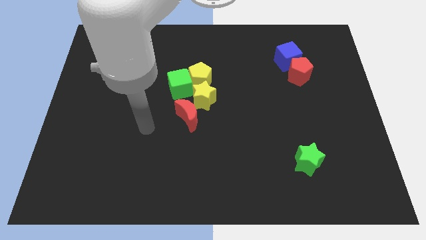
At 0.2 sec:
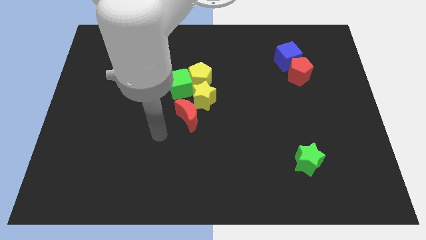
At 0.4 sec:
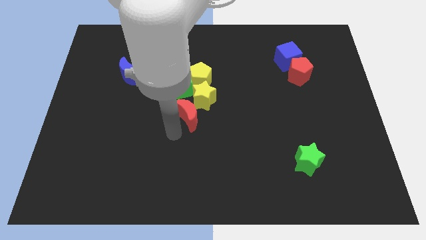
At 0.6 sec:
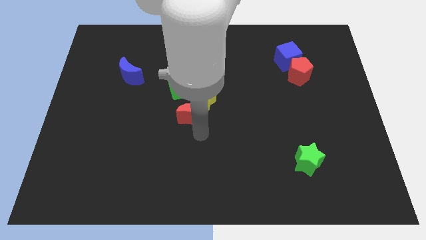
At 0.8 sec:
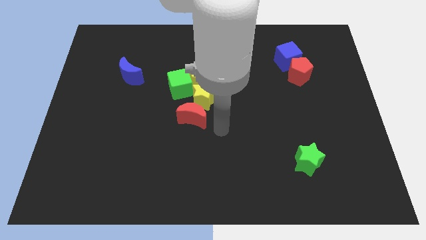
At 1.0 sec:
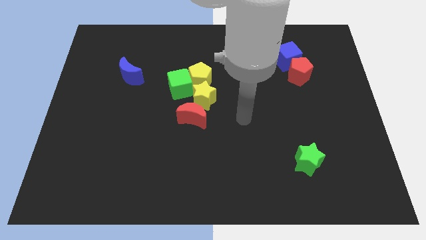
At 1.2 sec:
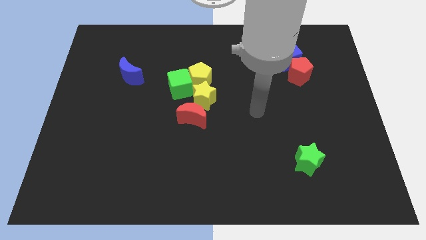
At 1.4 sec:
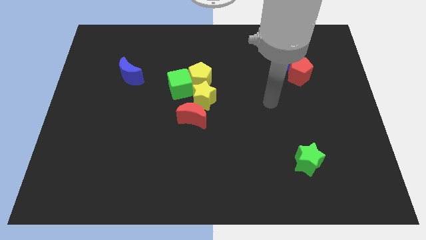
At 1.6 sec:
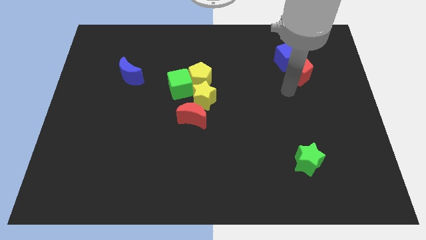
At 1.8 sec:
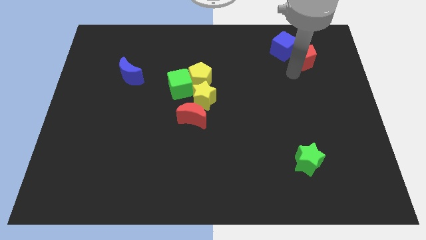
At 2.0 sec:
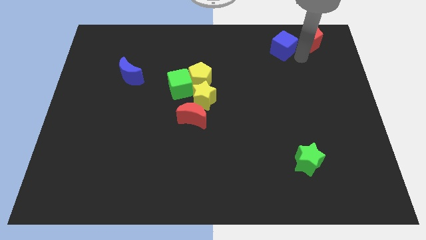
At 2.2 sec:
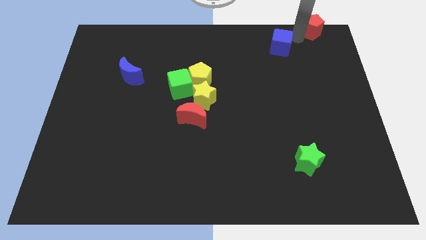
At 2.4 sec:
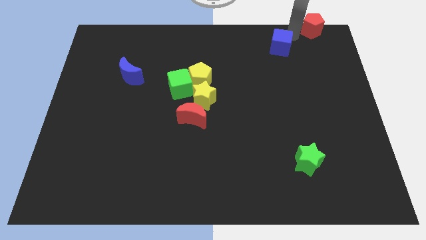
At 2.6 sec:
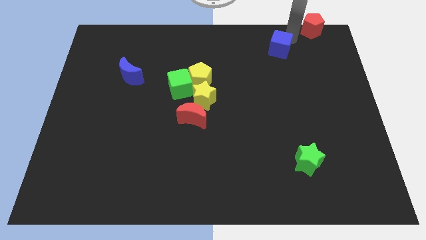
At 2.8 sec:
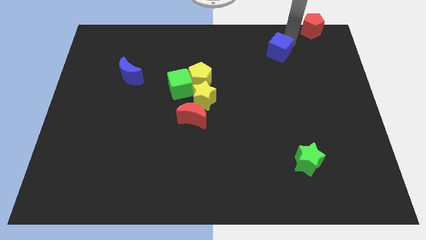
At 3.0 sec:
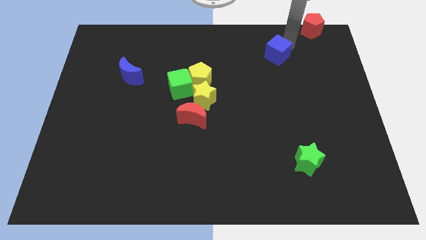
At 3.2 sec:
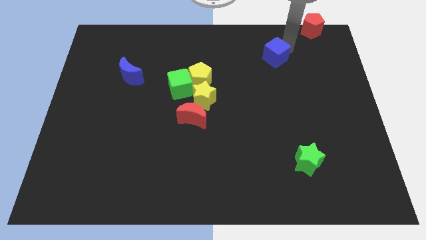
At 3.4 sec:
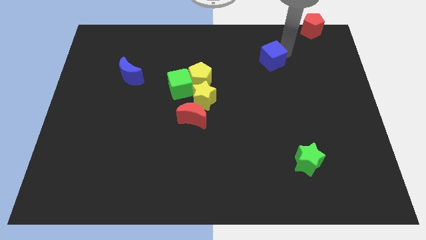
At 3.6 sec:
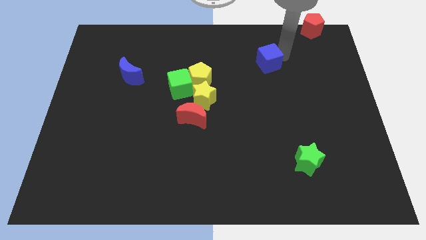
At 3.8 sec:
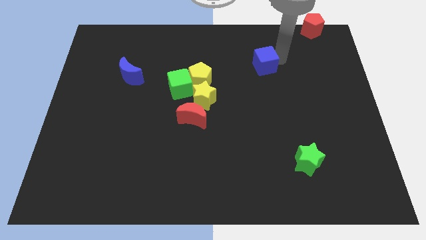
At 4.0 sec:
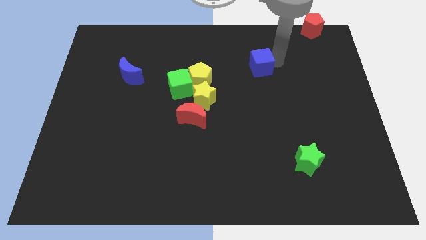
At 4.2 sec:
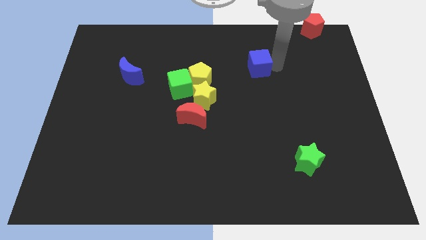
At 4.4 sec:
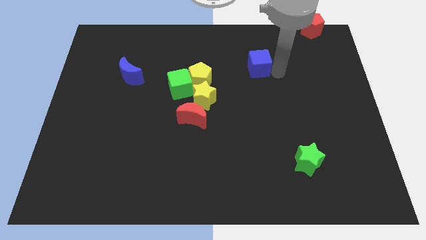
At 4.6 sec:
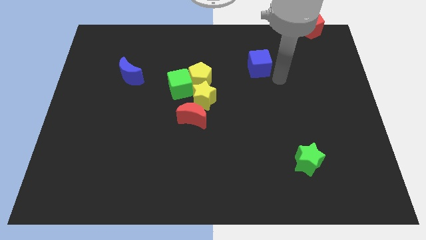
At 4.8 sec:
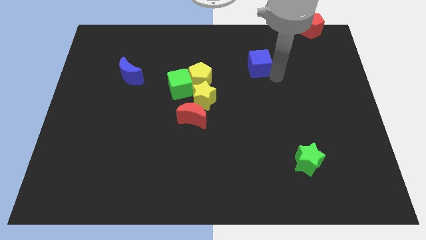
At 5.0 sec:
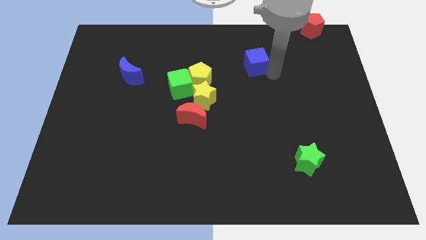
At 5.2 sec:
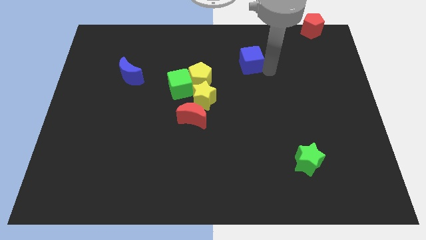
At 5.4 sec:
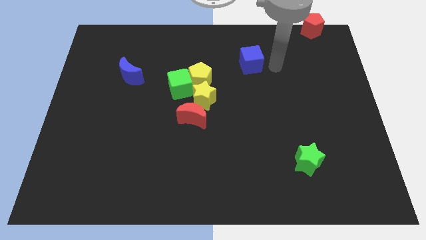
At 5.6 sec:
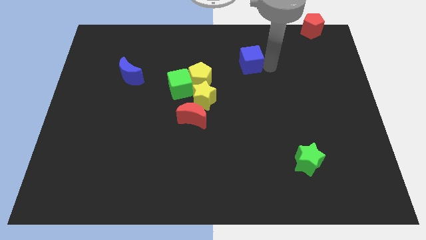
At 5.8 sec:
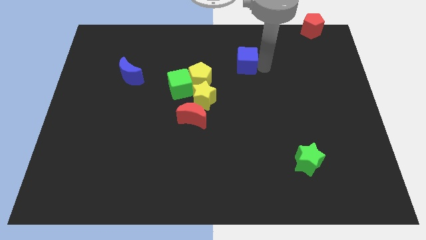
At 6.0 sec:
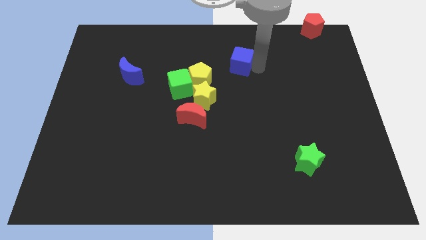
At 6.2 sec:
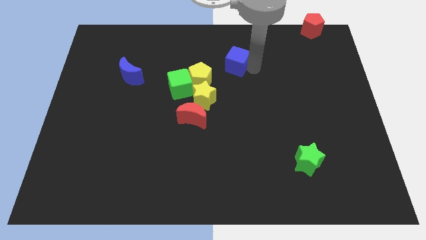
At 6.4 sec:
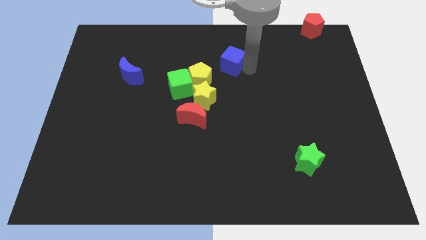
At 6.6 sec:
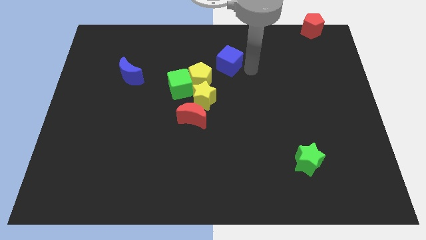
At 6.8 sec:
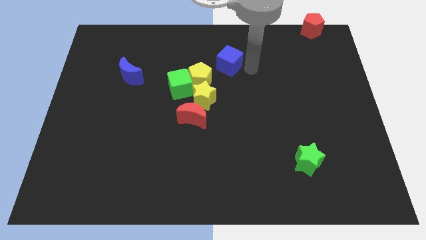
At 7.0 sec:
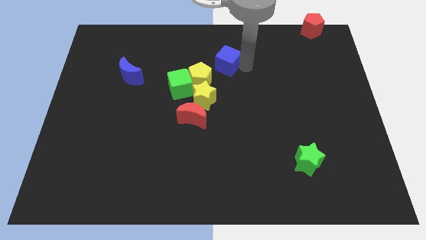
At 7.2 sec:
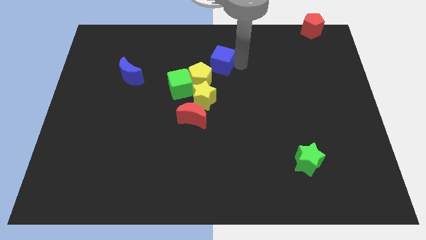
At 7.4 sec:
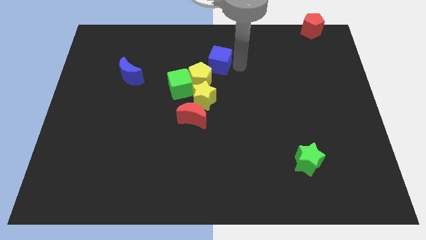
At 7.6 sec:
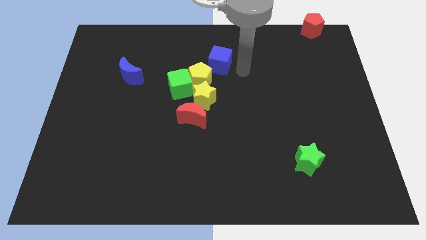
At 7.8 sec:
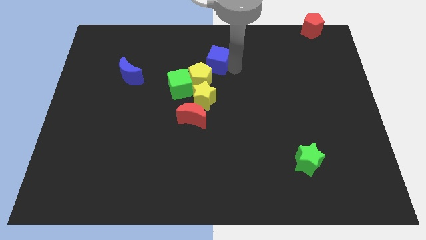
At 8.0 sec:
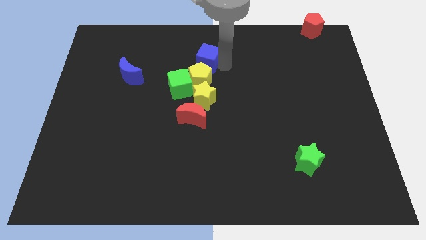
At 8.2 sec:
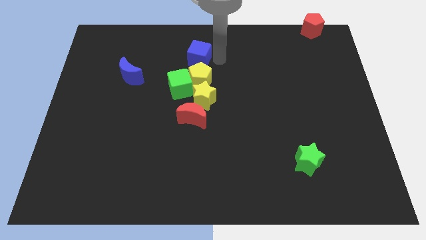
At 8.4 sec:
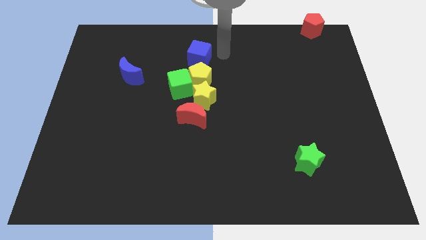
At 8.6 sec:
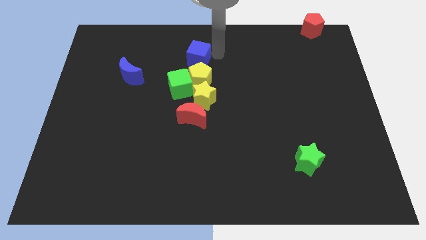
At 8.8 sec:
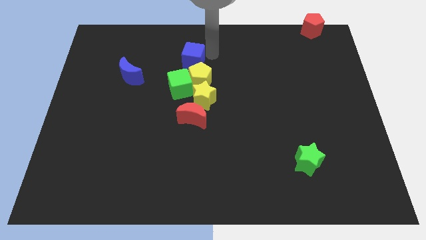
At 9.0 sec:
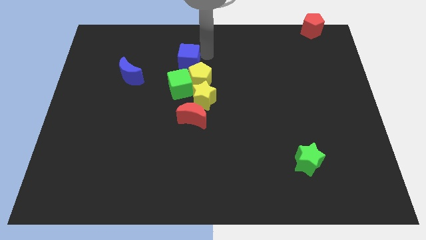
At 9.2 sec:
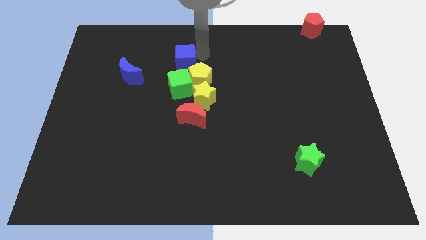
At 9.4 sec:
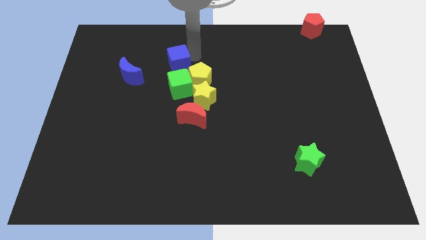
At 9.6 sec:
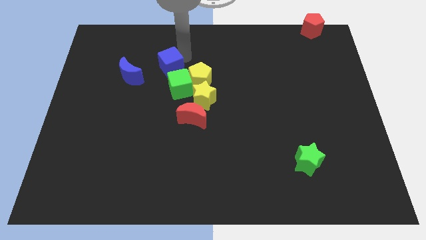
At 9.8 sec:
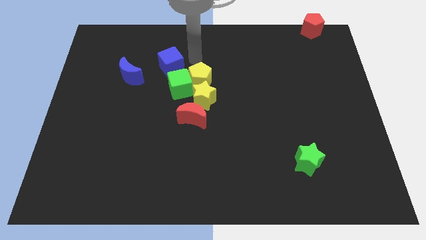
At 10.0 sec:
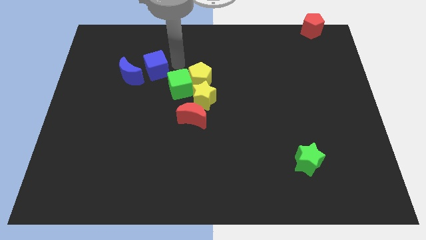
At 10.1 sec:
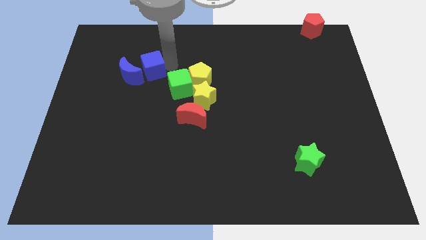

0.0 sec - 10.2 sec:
push the blue cube towards the blue moon

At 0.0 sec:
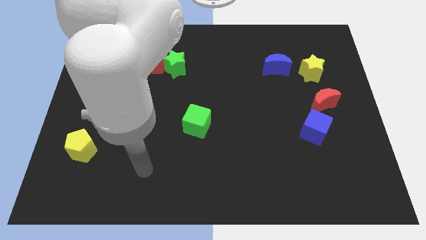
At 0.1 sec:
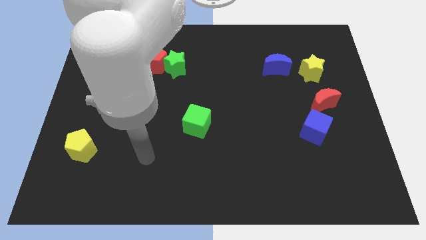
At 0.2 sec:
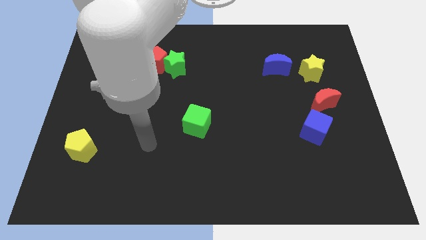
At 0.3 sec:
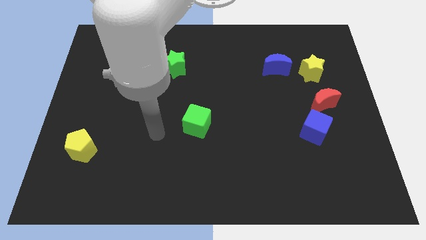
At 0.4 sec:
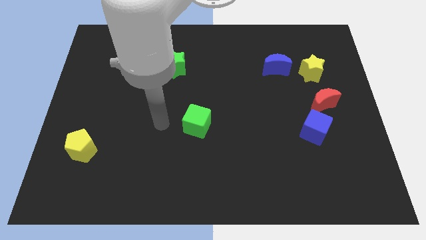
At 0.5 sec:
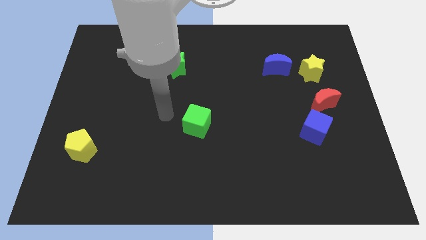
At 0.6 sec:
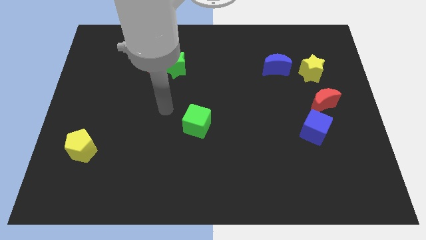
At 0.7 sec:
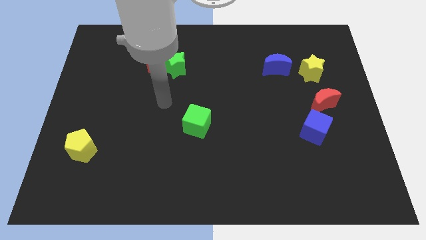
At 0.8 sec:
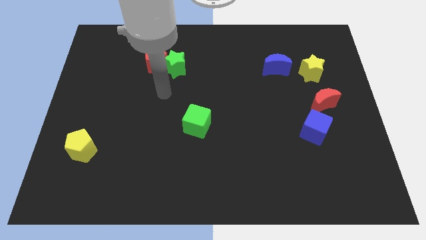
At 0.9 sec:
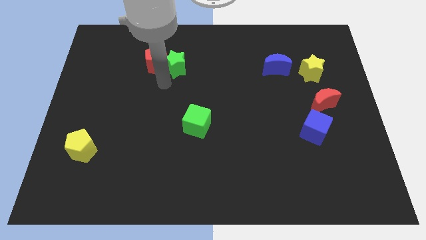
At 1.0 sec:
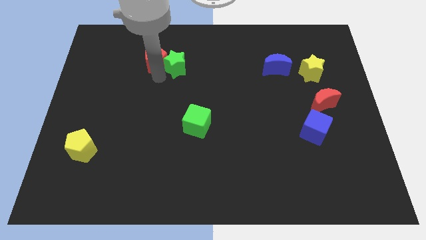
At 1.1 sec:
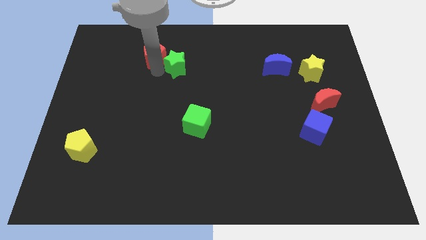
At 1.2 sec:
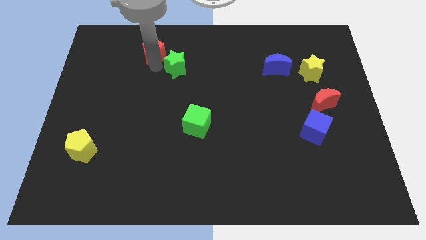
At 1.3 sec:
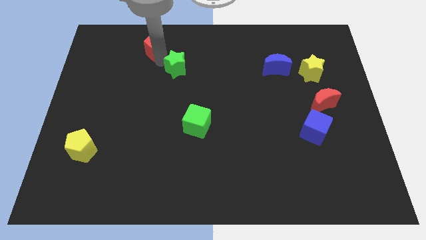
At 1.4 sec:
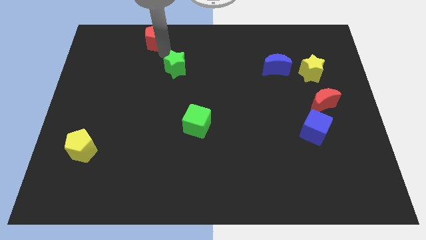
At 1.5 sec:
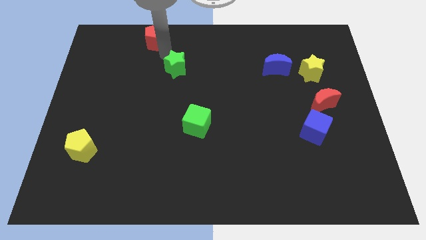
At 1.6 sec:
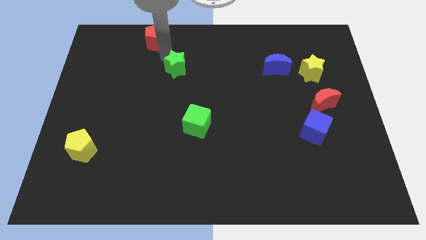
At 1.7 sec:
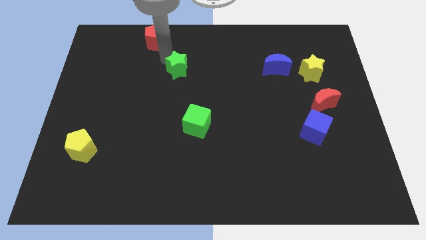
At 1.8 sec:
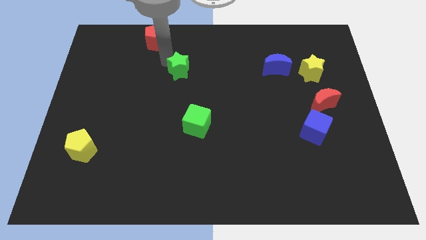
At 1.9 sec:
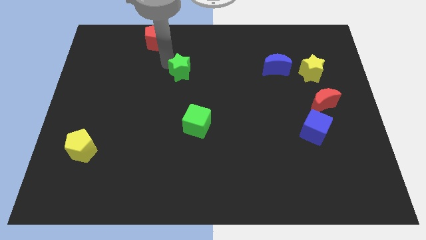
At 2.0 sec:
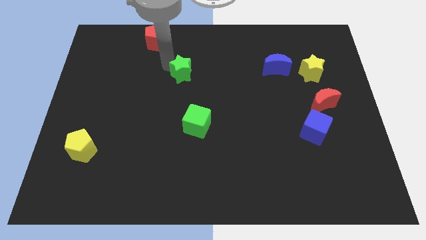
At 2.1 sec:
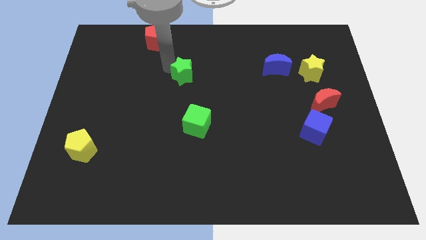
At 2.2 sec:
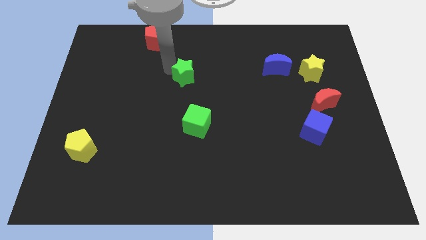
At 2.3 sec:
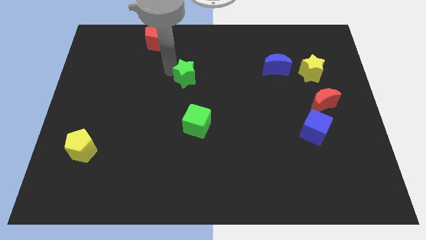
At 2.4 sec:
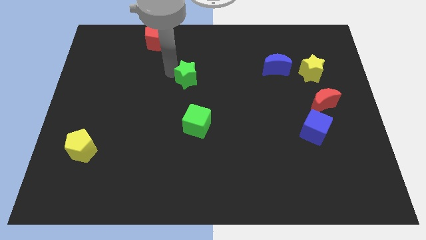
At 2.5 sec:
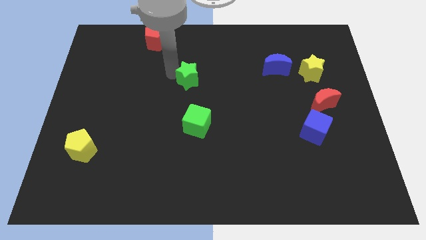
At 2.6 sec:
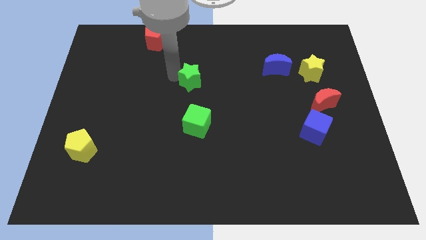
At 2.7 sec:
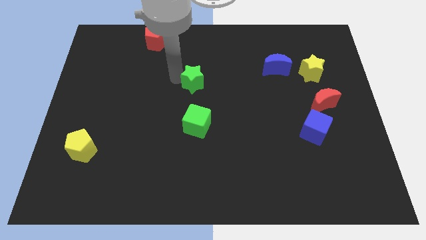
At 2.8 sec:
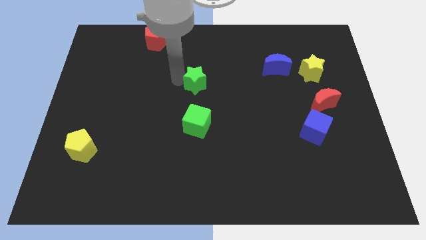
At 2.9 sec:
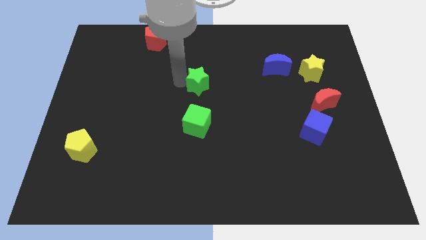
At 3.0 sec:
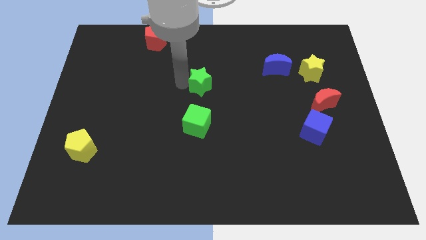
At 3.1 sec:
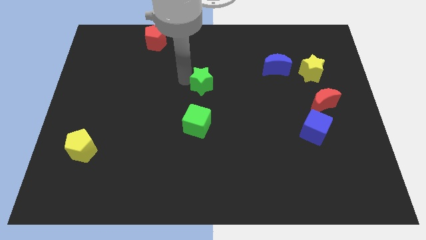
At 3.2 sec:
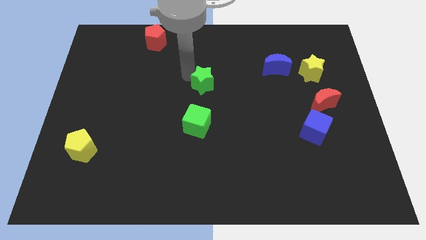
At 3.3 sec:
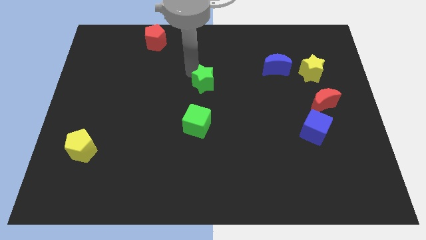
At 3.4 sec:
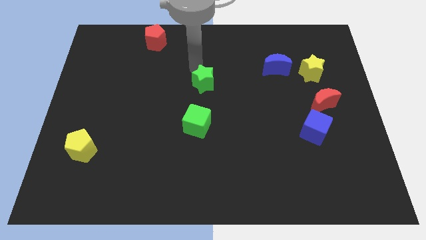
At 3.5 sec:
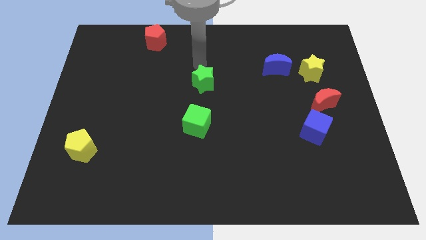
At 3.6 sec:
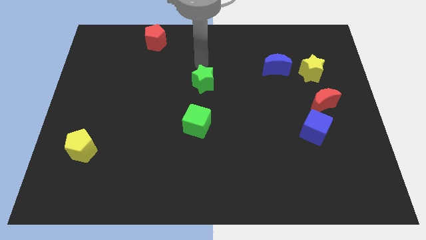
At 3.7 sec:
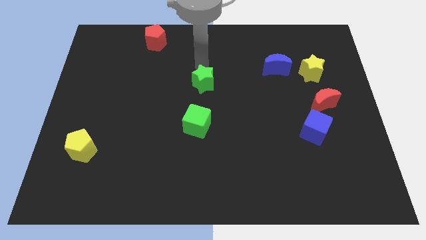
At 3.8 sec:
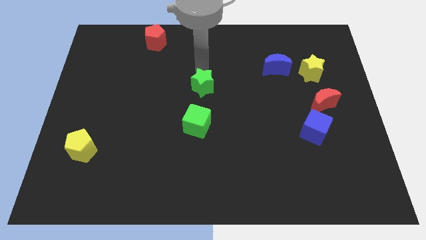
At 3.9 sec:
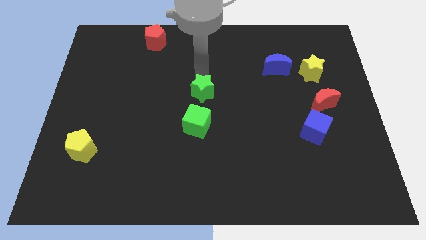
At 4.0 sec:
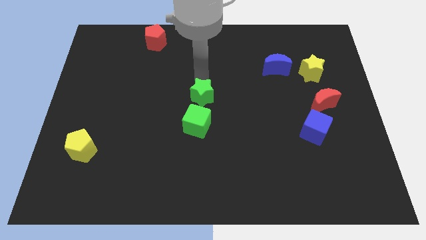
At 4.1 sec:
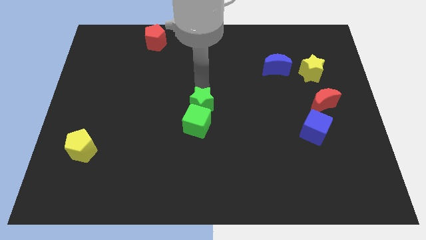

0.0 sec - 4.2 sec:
slide the green star towards the green cube
